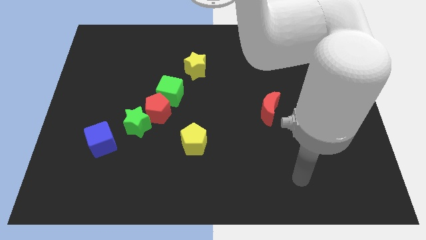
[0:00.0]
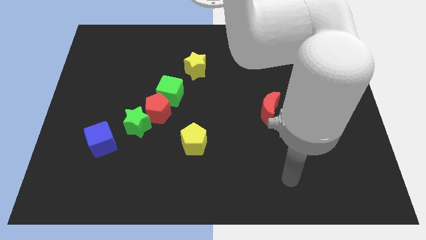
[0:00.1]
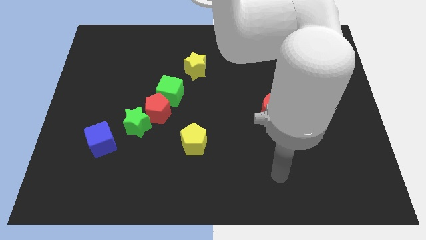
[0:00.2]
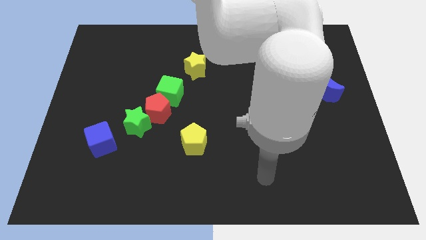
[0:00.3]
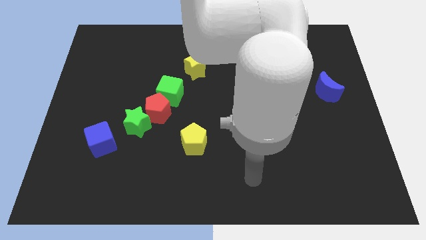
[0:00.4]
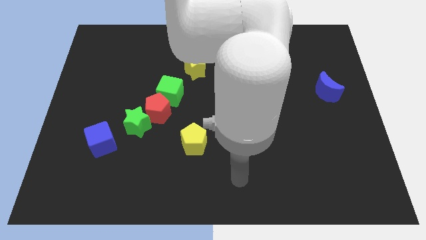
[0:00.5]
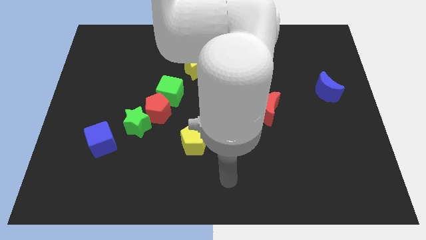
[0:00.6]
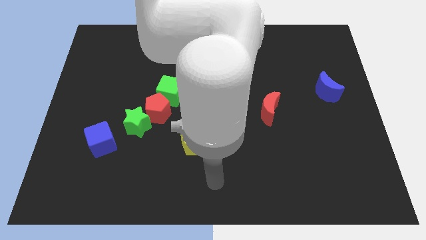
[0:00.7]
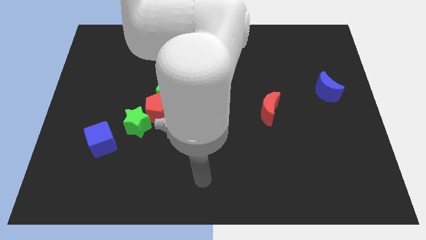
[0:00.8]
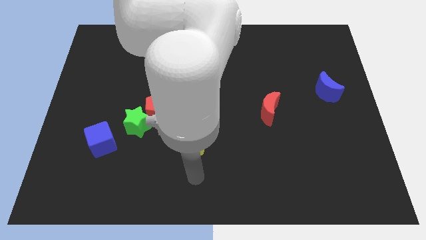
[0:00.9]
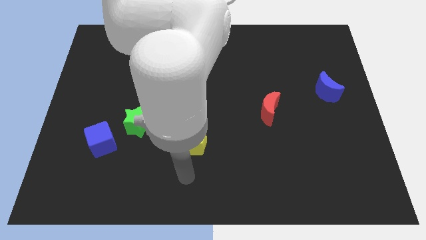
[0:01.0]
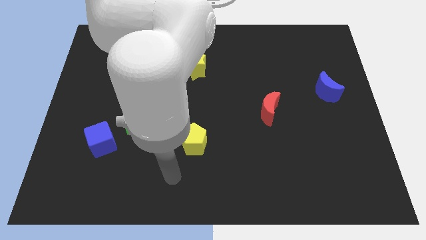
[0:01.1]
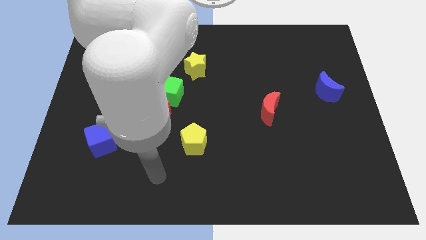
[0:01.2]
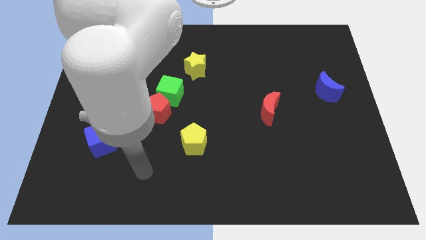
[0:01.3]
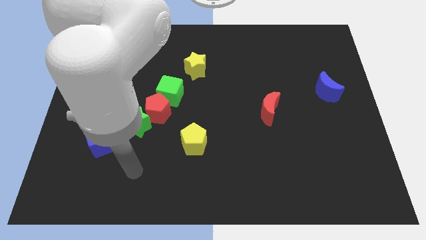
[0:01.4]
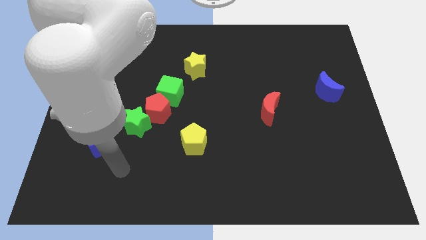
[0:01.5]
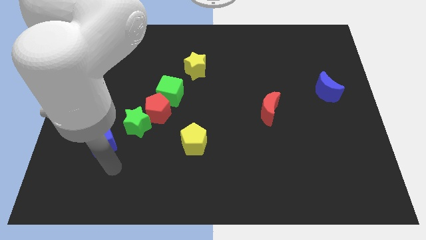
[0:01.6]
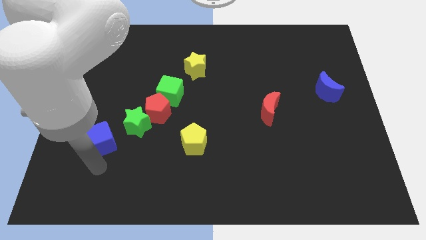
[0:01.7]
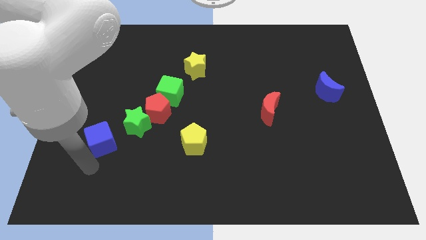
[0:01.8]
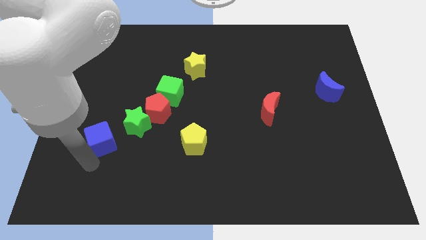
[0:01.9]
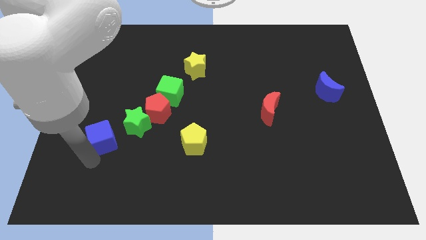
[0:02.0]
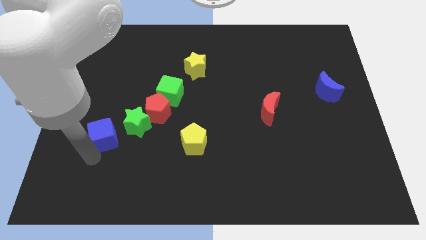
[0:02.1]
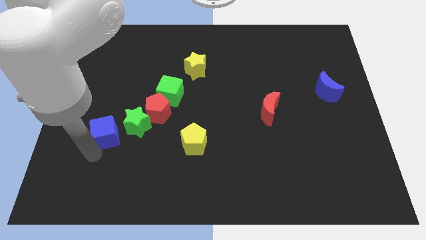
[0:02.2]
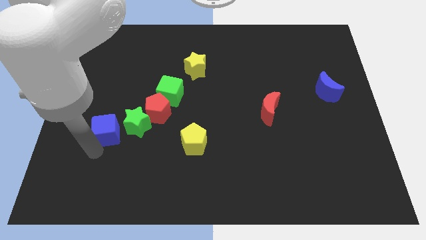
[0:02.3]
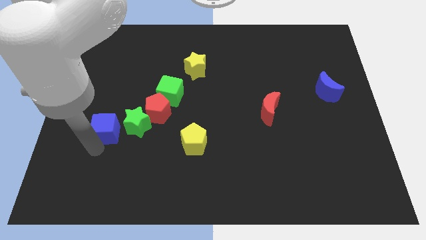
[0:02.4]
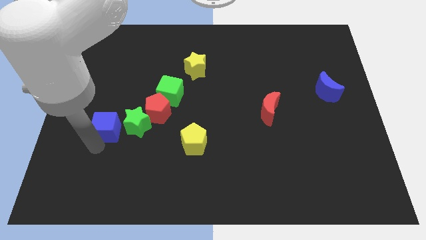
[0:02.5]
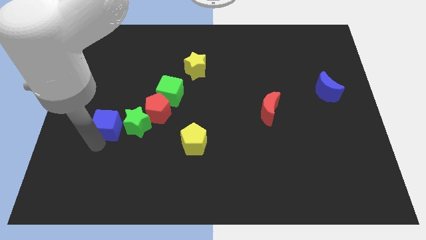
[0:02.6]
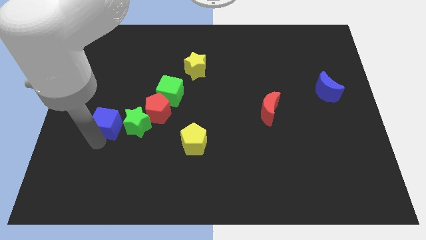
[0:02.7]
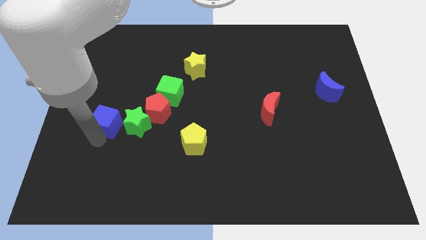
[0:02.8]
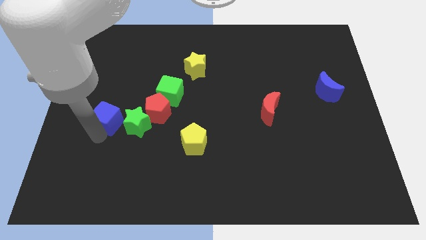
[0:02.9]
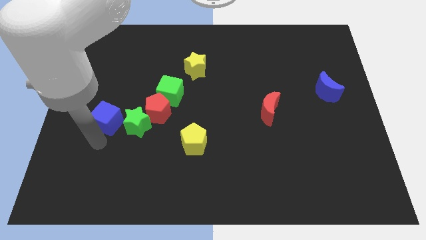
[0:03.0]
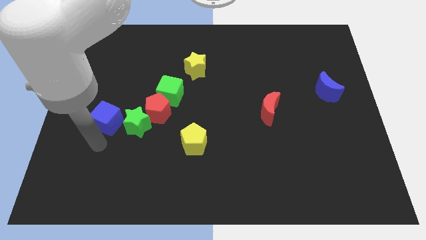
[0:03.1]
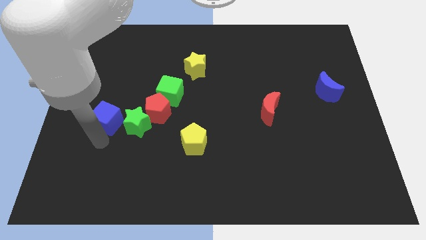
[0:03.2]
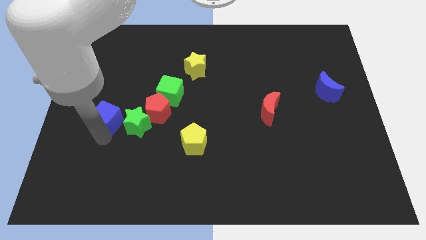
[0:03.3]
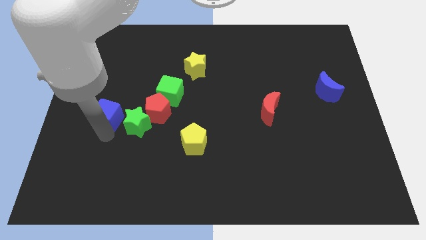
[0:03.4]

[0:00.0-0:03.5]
push the blue cube a bit up

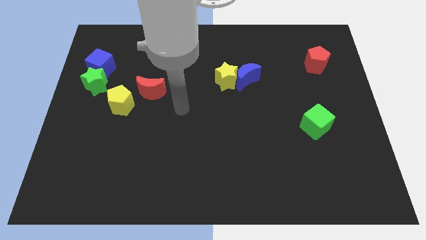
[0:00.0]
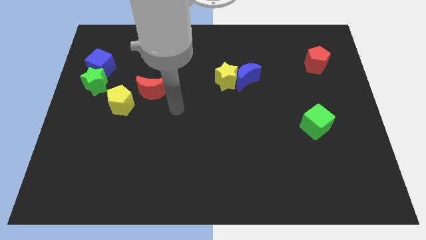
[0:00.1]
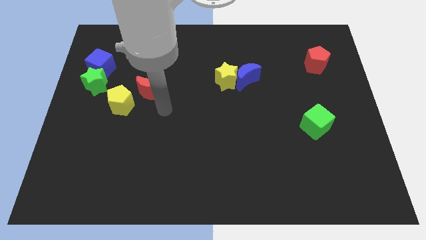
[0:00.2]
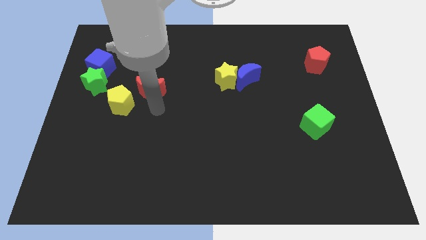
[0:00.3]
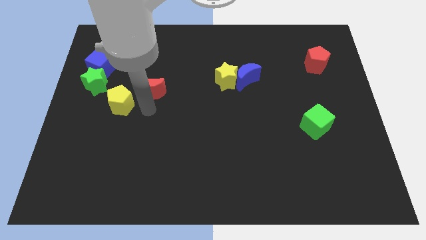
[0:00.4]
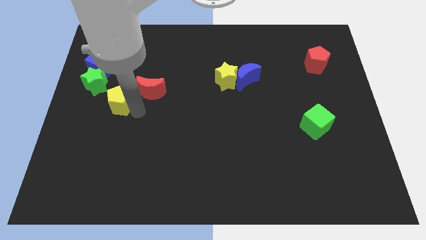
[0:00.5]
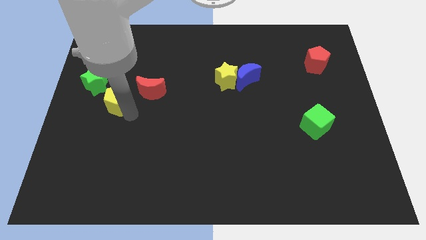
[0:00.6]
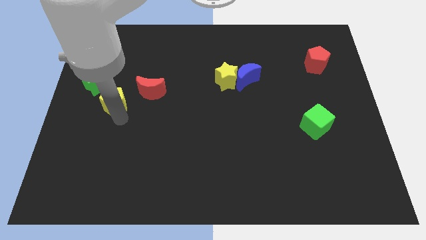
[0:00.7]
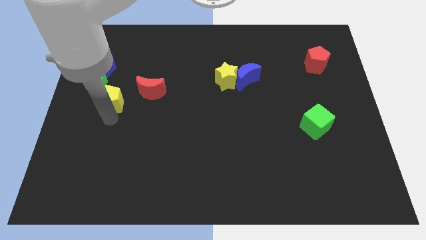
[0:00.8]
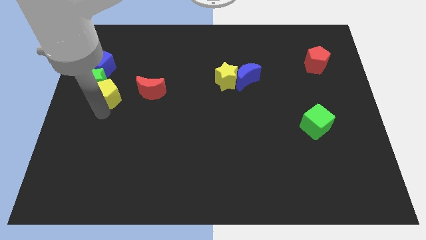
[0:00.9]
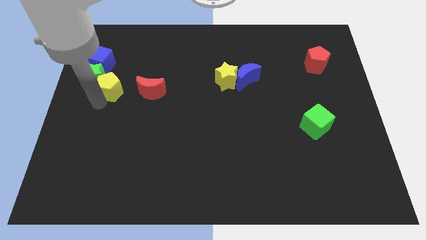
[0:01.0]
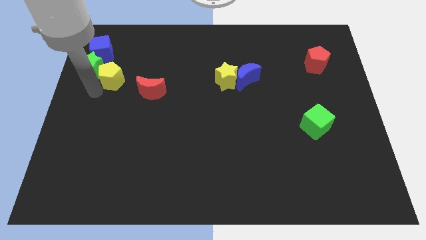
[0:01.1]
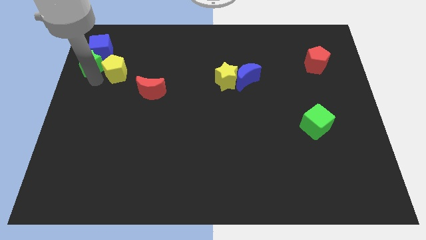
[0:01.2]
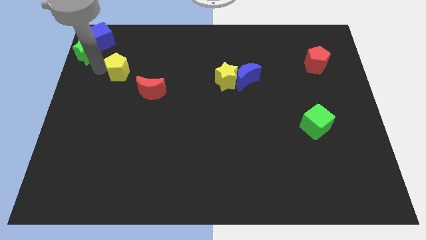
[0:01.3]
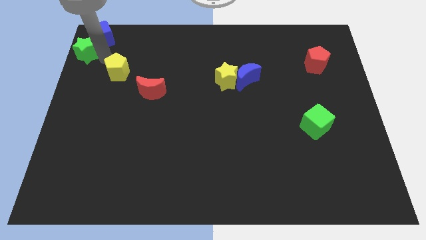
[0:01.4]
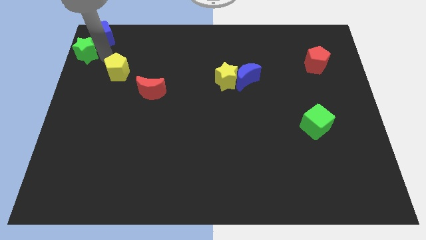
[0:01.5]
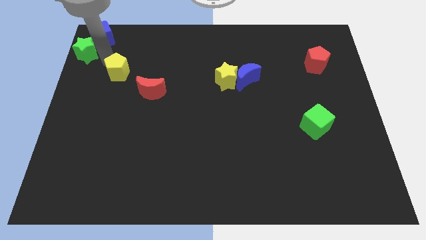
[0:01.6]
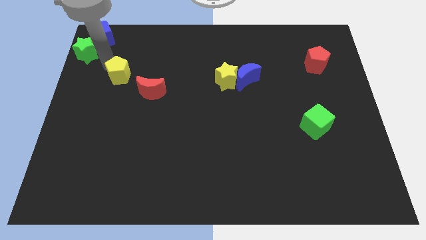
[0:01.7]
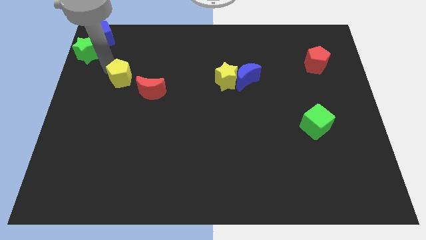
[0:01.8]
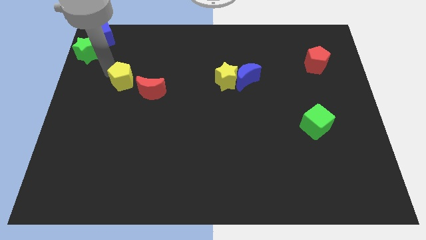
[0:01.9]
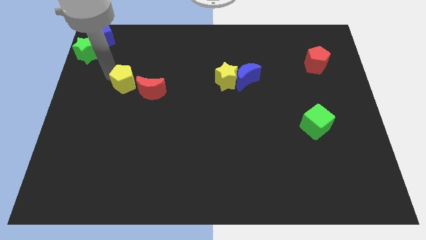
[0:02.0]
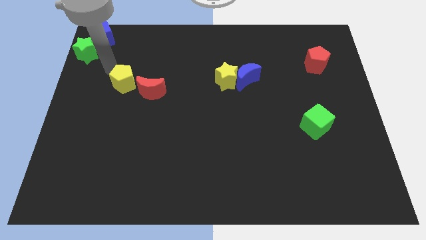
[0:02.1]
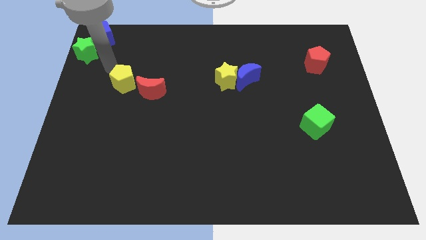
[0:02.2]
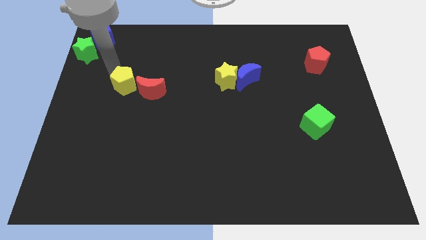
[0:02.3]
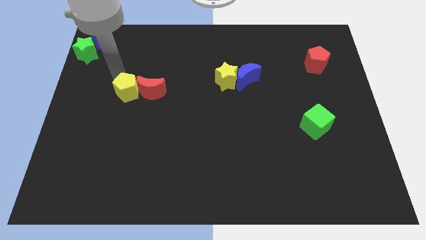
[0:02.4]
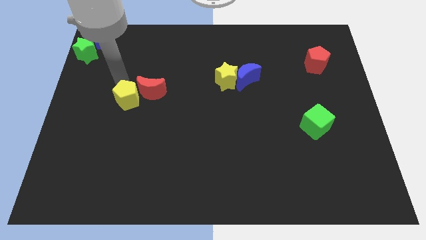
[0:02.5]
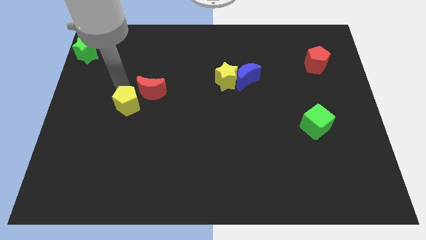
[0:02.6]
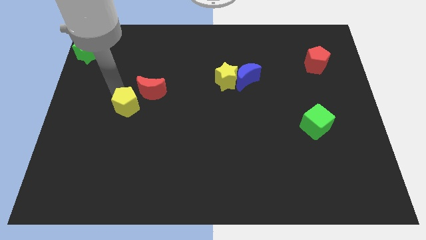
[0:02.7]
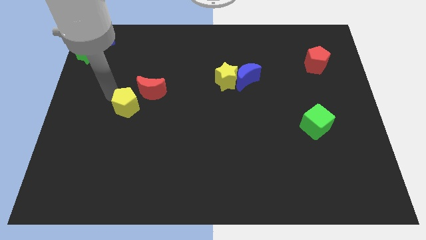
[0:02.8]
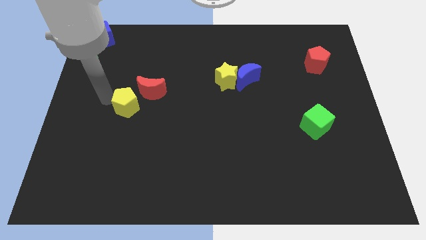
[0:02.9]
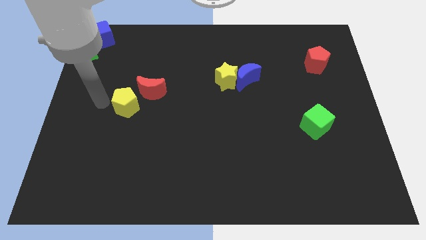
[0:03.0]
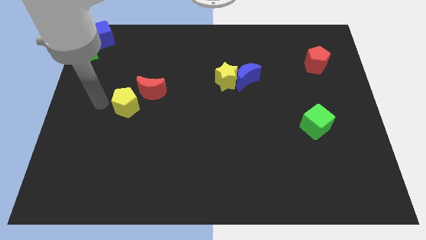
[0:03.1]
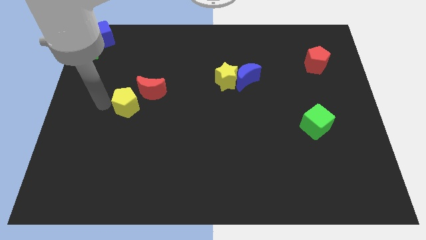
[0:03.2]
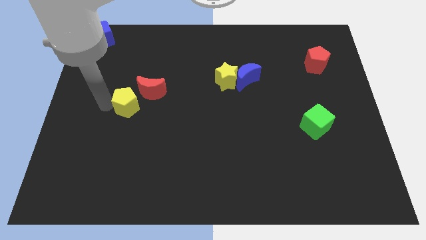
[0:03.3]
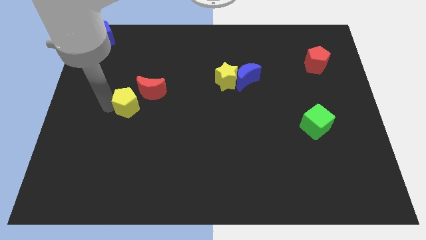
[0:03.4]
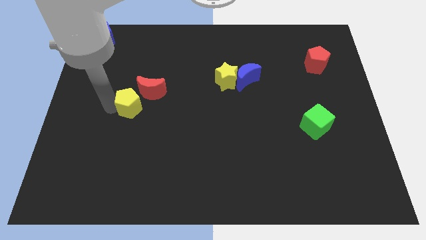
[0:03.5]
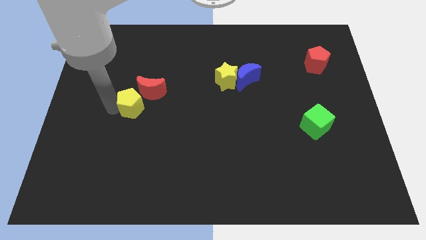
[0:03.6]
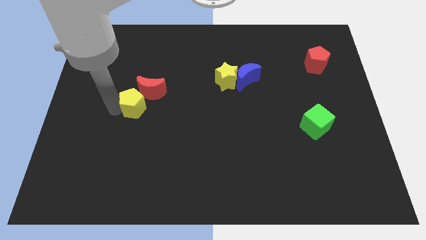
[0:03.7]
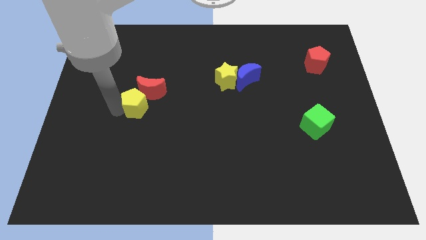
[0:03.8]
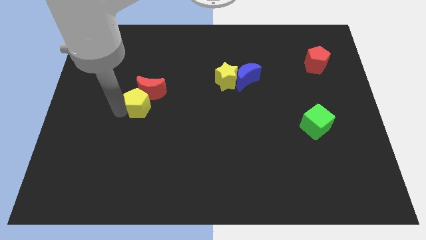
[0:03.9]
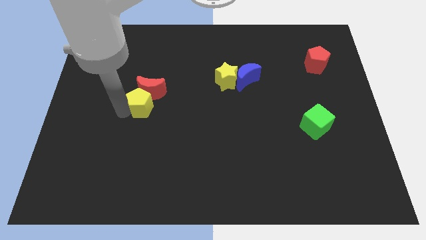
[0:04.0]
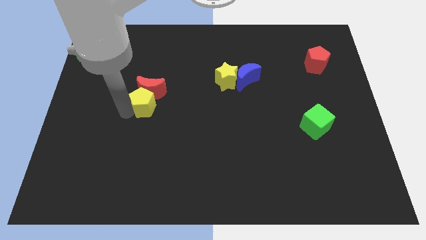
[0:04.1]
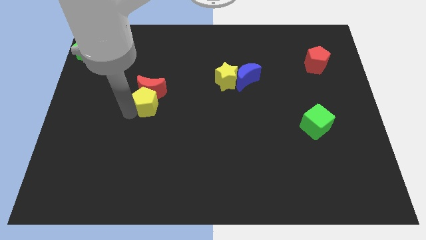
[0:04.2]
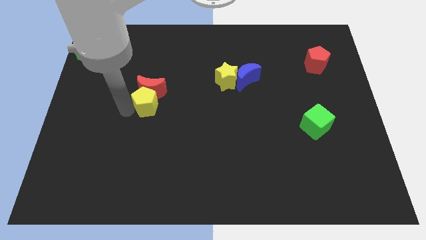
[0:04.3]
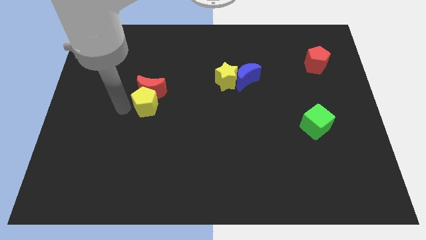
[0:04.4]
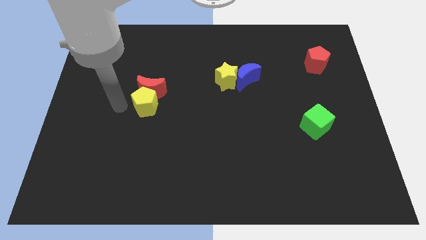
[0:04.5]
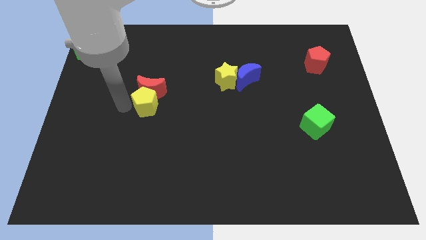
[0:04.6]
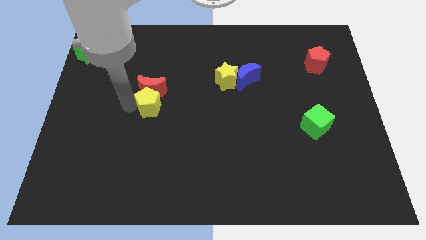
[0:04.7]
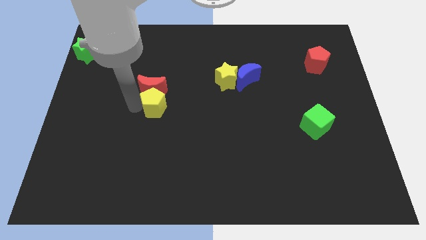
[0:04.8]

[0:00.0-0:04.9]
slide the yellow pentagon a little bit to the right
